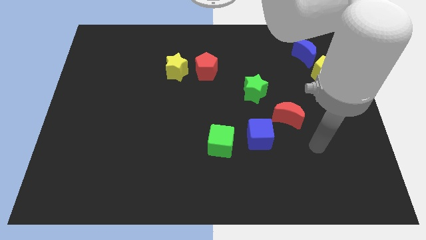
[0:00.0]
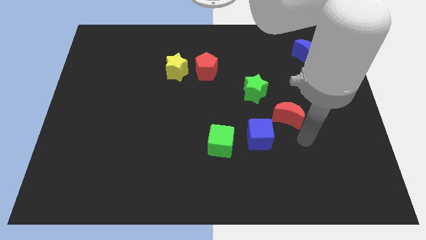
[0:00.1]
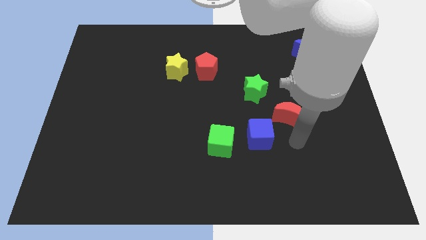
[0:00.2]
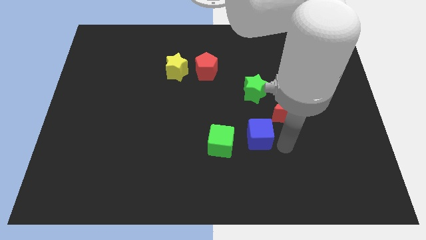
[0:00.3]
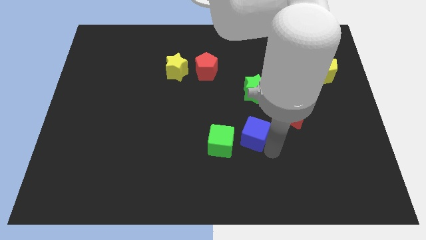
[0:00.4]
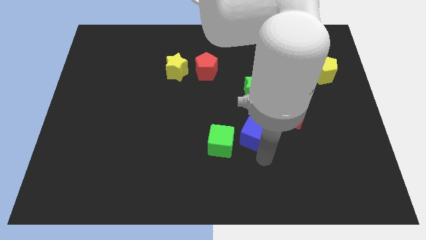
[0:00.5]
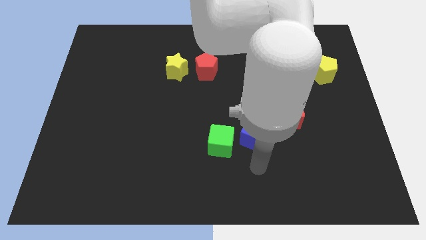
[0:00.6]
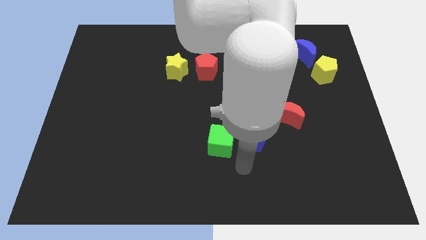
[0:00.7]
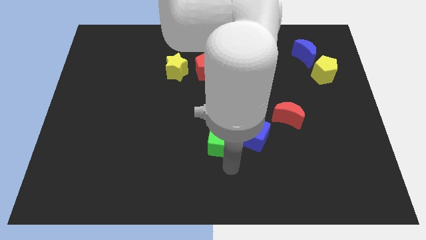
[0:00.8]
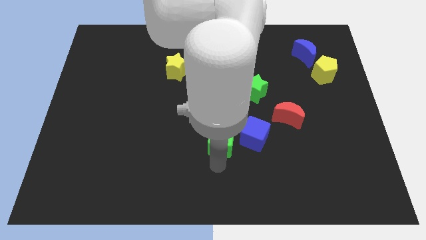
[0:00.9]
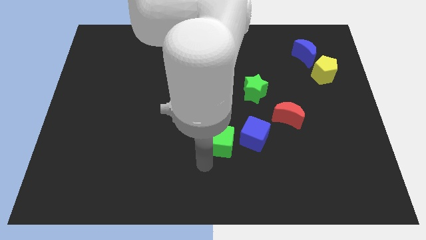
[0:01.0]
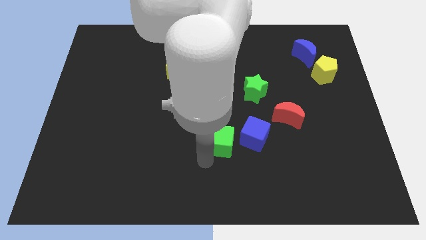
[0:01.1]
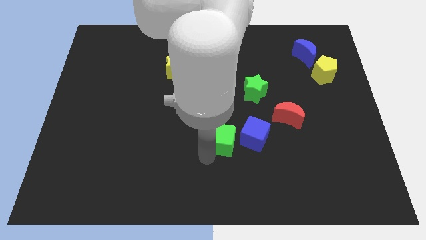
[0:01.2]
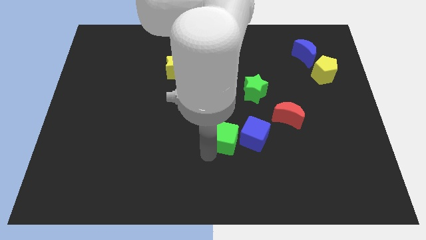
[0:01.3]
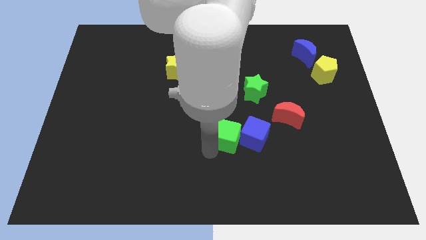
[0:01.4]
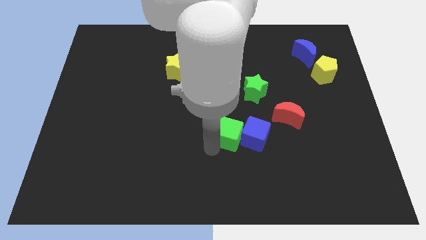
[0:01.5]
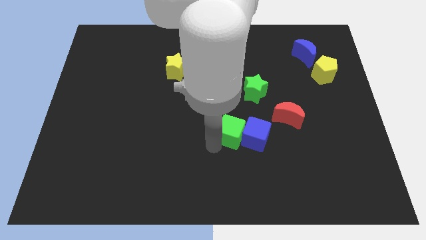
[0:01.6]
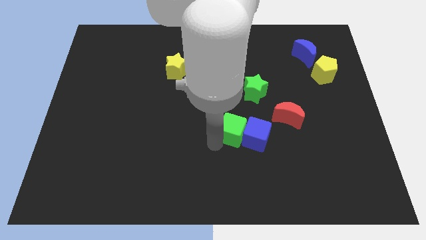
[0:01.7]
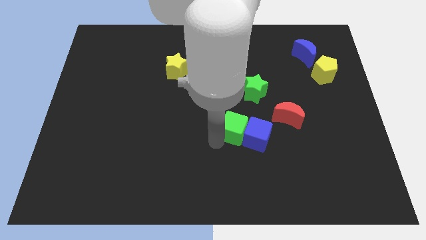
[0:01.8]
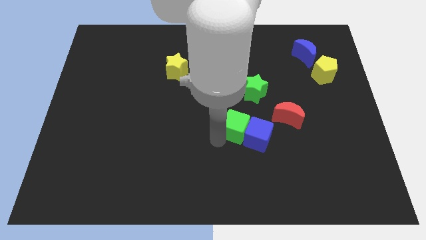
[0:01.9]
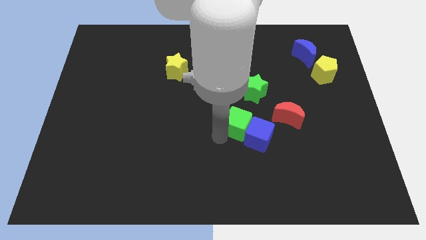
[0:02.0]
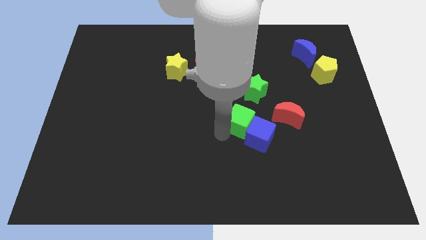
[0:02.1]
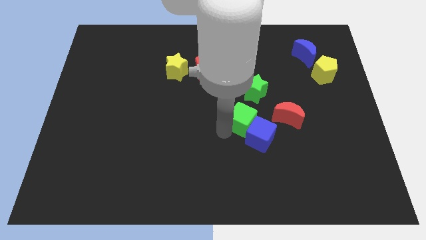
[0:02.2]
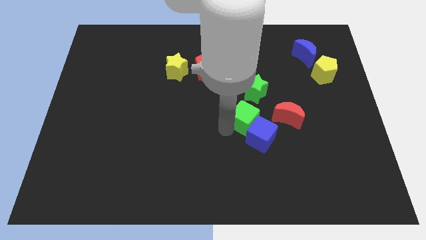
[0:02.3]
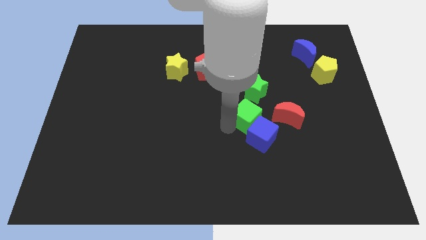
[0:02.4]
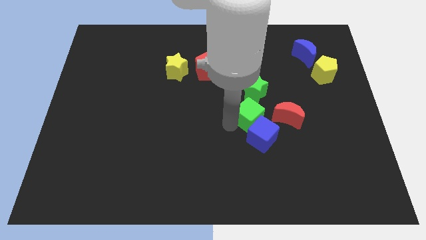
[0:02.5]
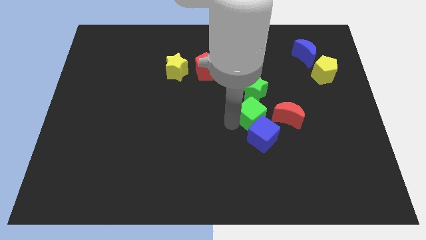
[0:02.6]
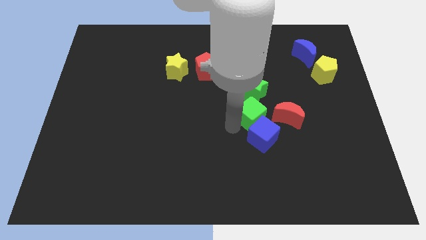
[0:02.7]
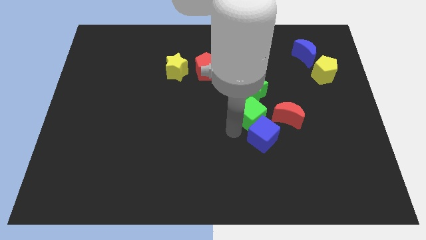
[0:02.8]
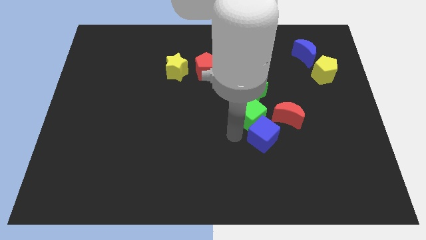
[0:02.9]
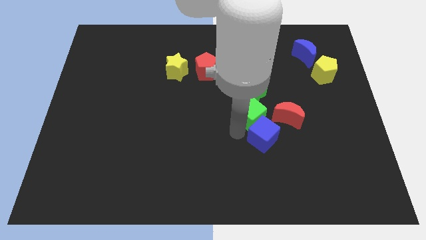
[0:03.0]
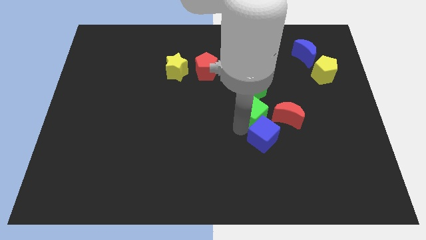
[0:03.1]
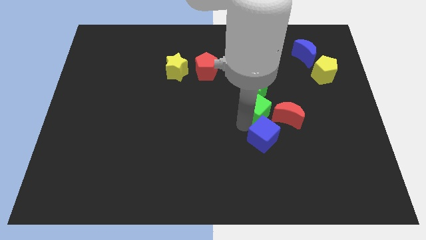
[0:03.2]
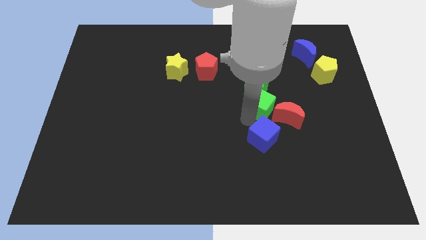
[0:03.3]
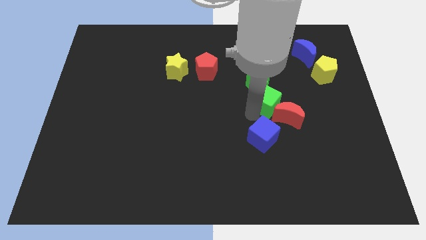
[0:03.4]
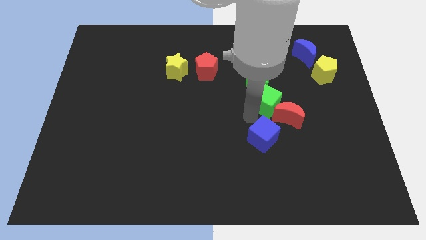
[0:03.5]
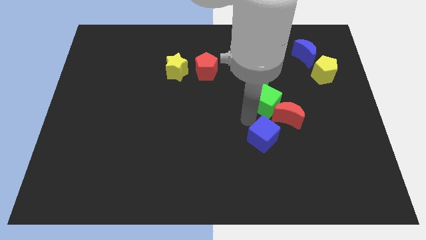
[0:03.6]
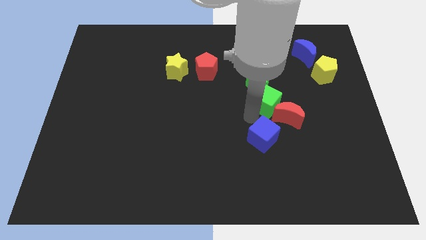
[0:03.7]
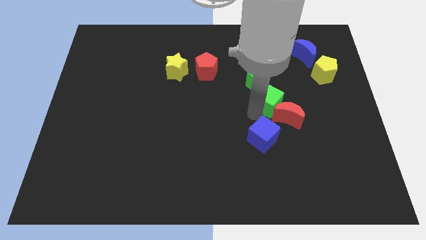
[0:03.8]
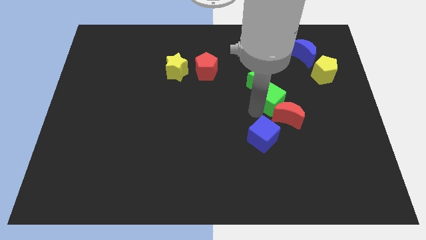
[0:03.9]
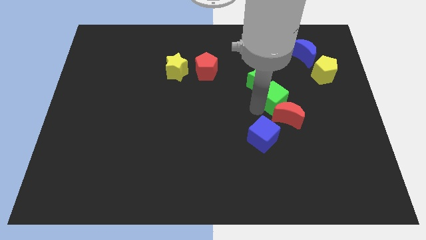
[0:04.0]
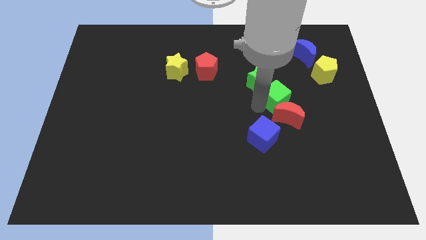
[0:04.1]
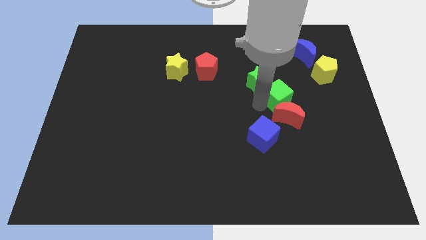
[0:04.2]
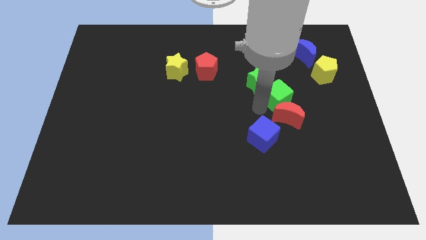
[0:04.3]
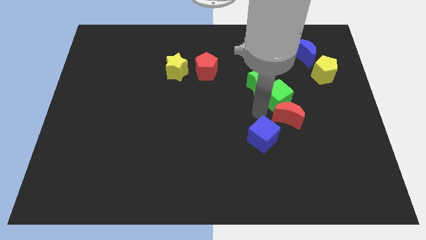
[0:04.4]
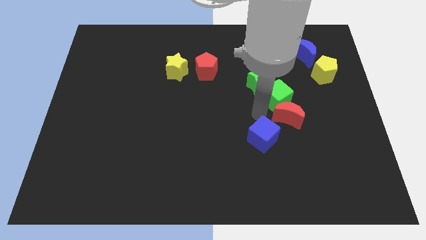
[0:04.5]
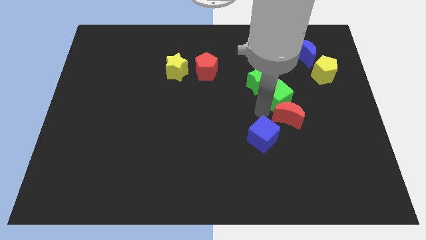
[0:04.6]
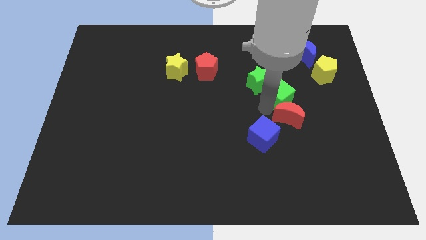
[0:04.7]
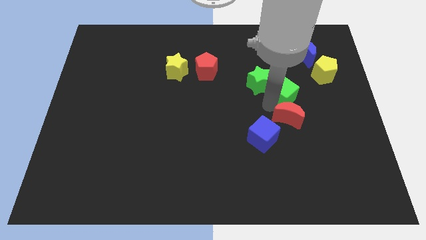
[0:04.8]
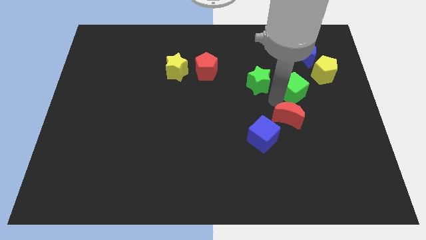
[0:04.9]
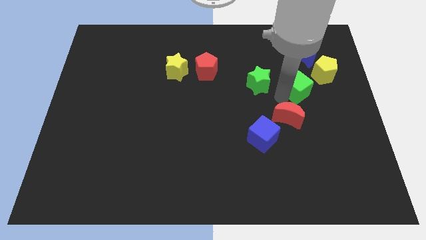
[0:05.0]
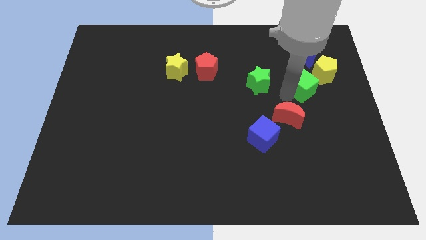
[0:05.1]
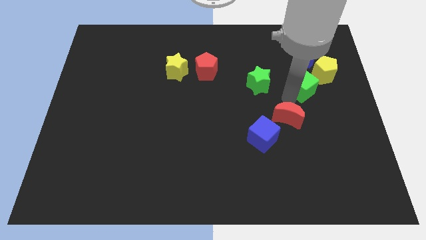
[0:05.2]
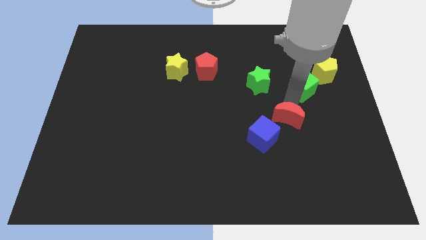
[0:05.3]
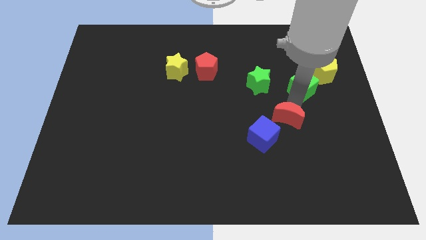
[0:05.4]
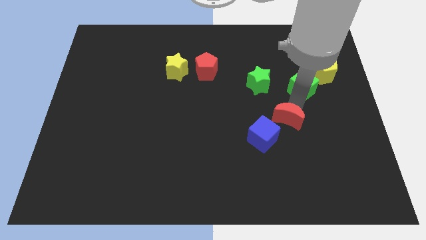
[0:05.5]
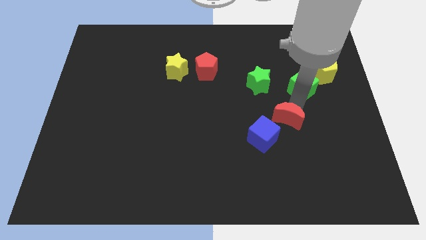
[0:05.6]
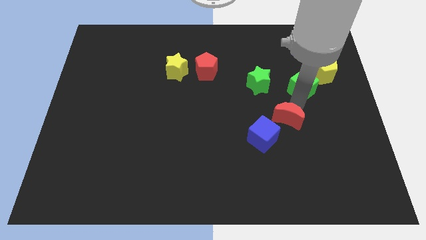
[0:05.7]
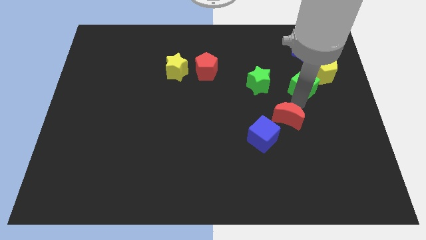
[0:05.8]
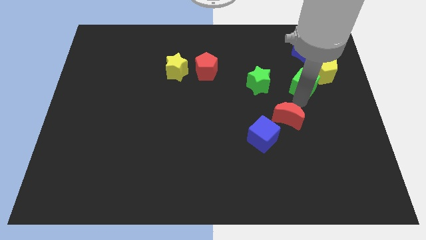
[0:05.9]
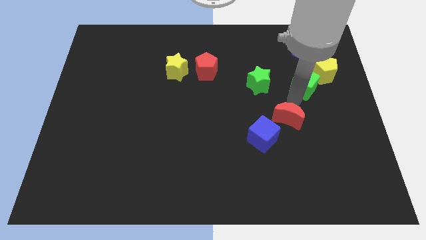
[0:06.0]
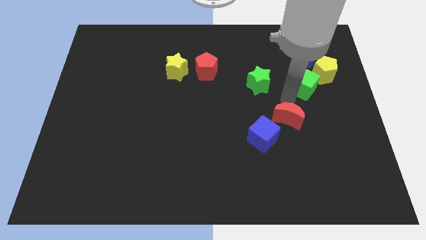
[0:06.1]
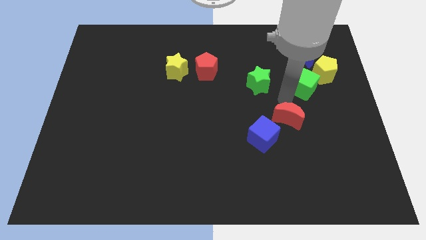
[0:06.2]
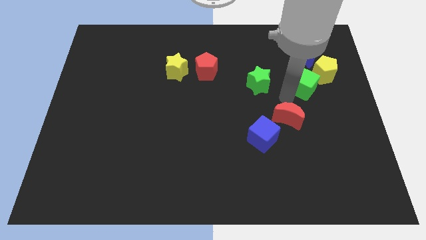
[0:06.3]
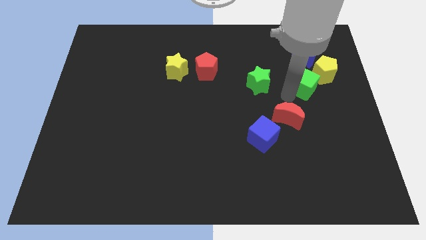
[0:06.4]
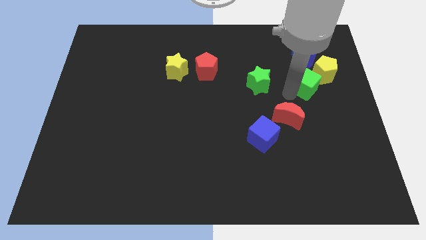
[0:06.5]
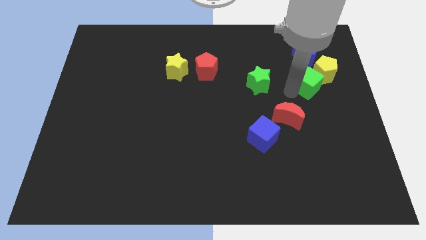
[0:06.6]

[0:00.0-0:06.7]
slide the green cube next to the yellow pentagon

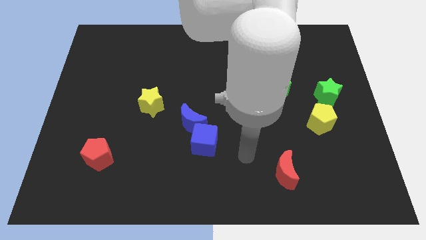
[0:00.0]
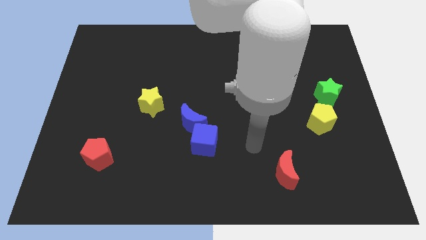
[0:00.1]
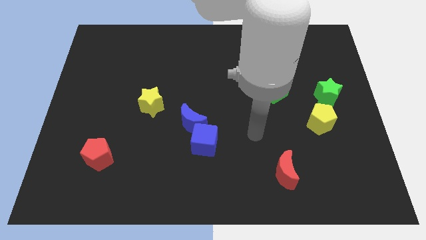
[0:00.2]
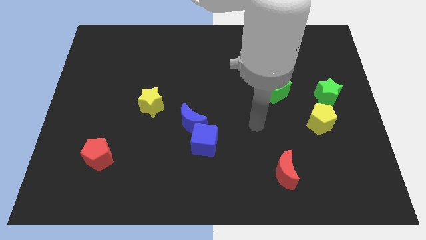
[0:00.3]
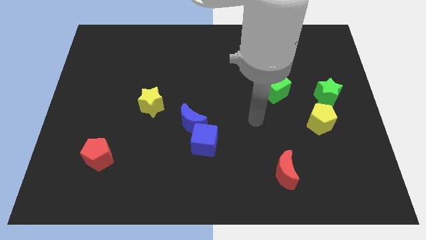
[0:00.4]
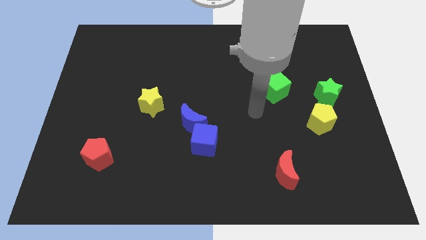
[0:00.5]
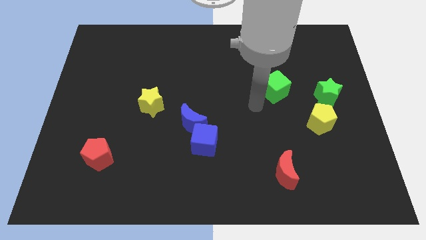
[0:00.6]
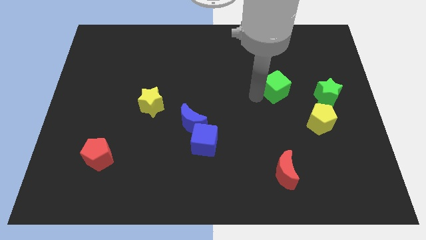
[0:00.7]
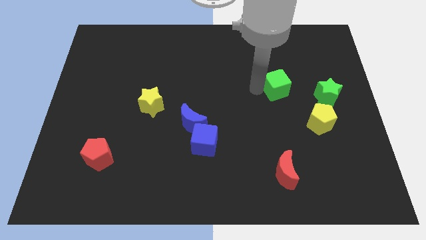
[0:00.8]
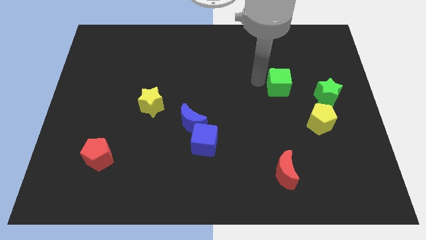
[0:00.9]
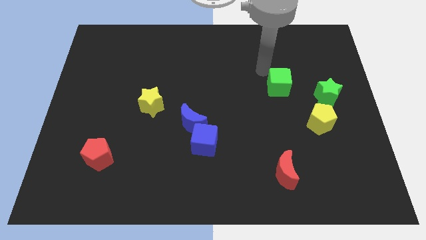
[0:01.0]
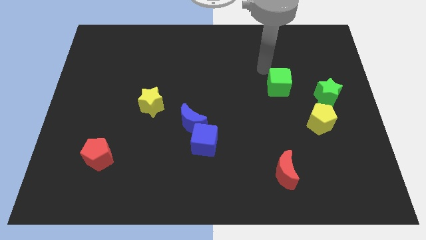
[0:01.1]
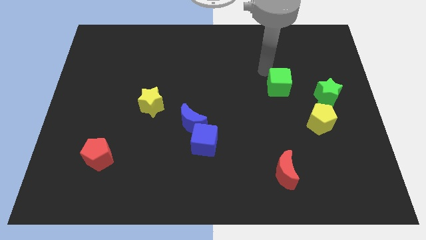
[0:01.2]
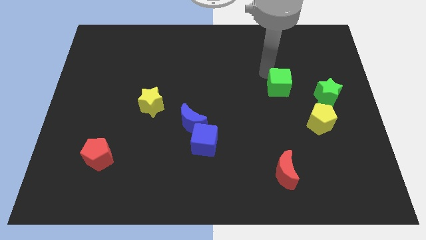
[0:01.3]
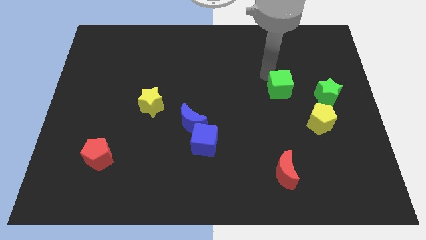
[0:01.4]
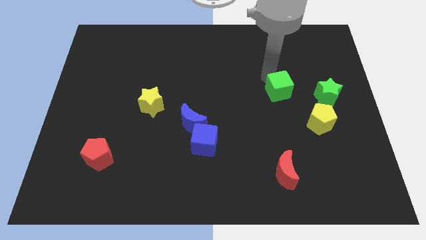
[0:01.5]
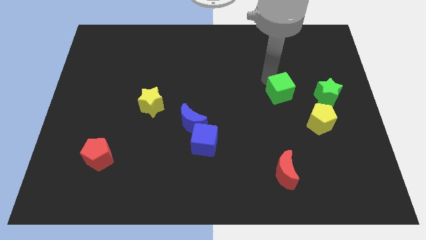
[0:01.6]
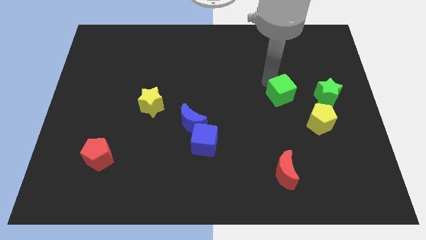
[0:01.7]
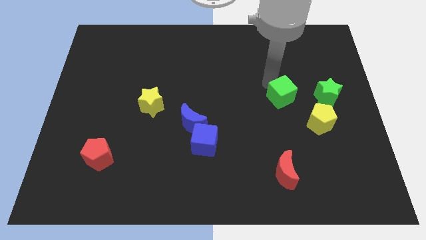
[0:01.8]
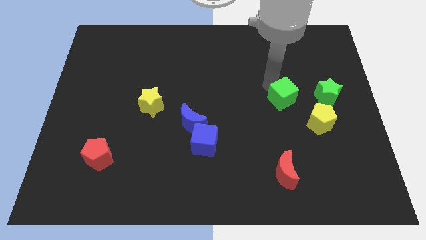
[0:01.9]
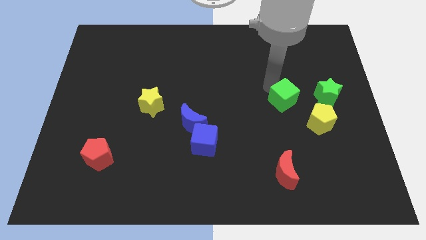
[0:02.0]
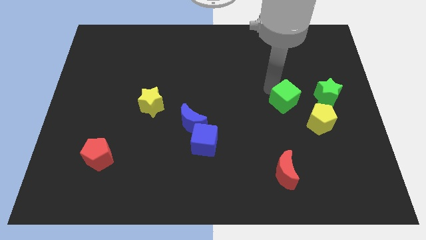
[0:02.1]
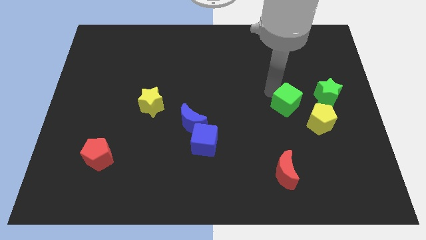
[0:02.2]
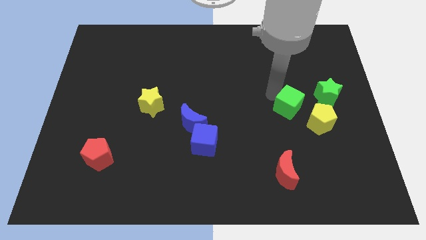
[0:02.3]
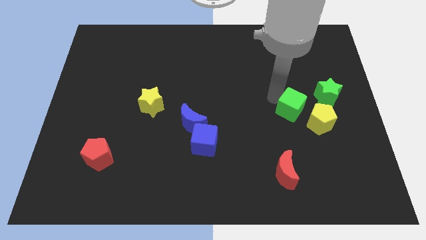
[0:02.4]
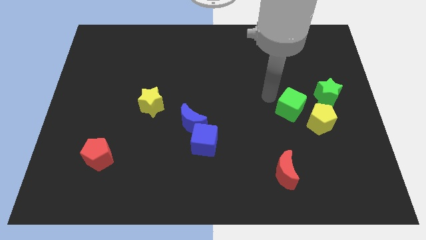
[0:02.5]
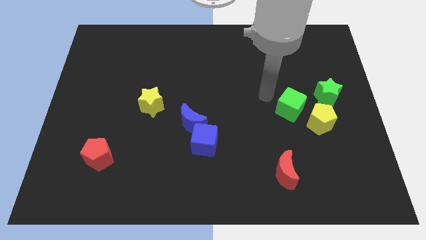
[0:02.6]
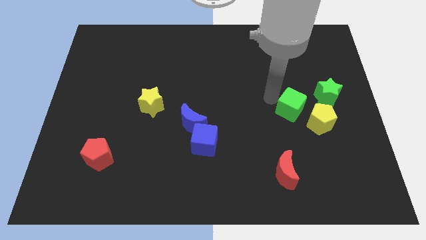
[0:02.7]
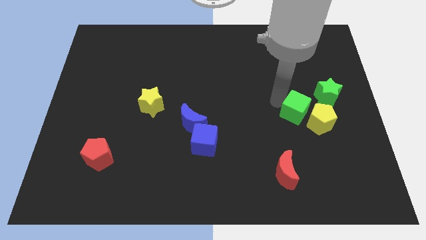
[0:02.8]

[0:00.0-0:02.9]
push the green cube towards the yellow pentagon
